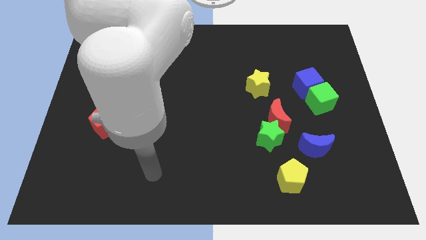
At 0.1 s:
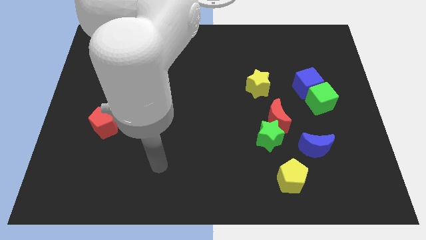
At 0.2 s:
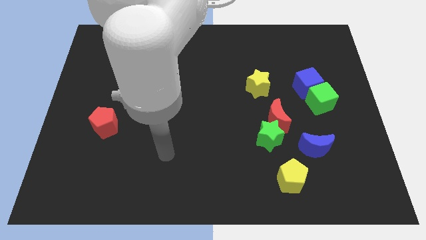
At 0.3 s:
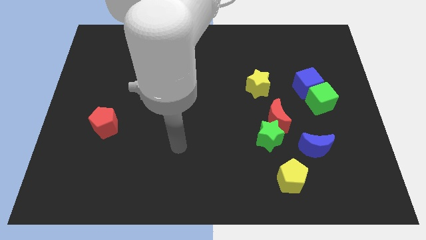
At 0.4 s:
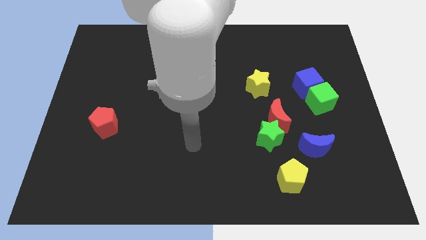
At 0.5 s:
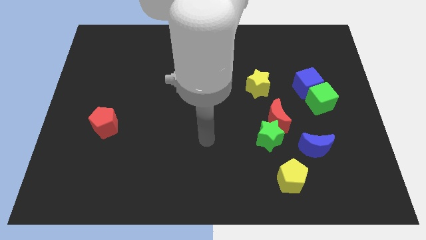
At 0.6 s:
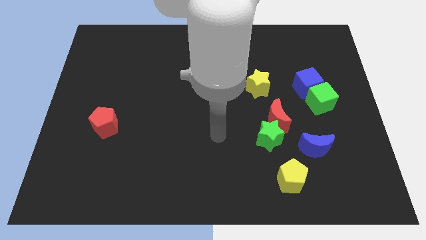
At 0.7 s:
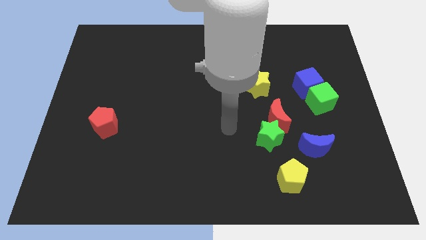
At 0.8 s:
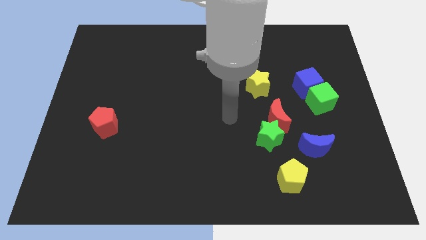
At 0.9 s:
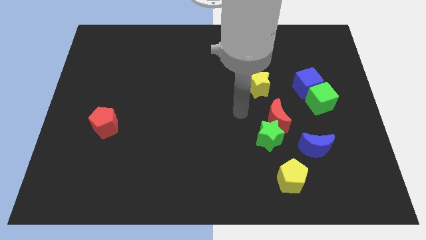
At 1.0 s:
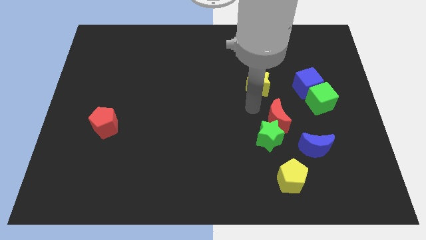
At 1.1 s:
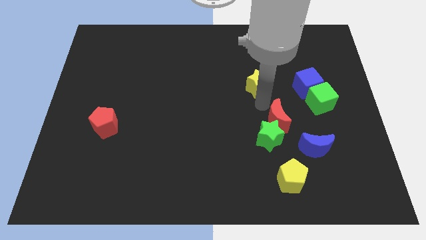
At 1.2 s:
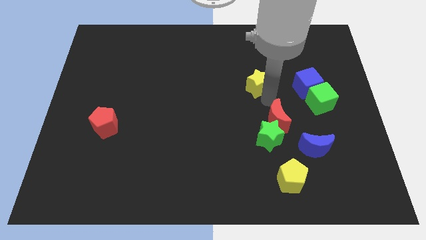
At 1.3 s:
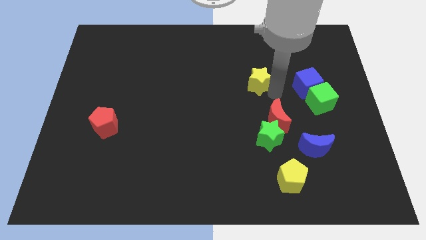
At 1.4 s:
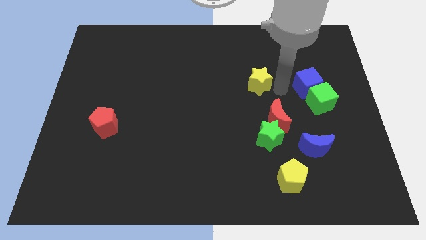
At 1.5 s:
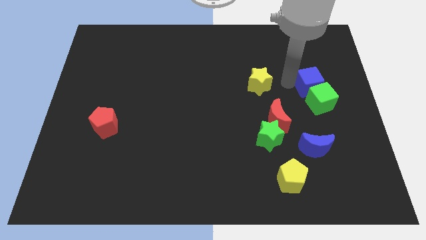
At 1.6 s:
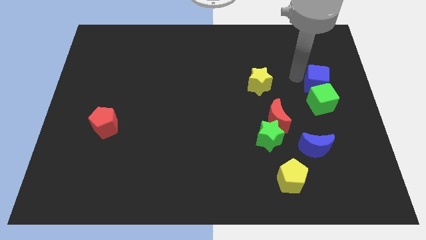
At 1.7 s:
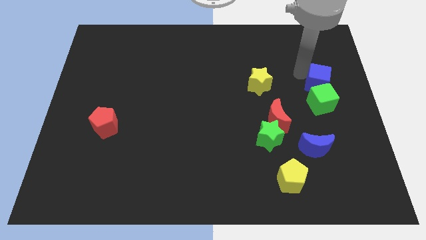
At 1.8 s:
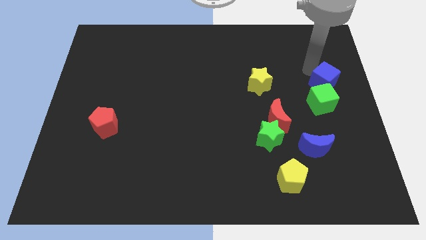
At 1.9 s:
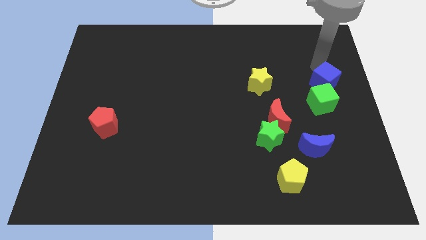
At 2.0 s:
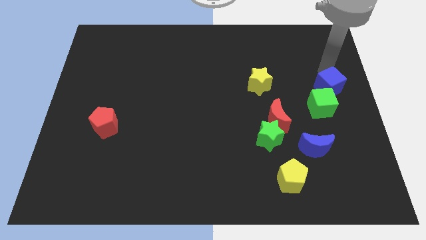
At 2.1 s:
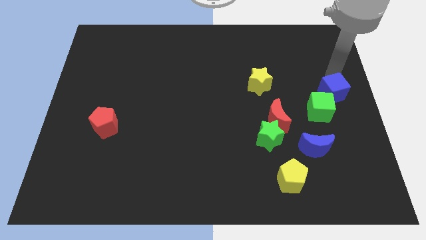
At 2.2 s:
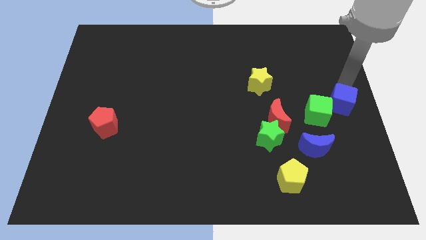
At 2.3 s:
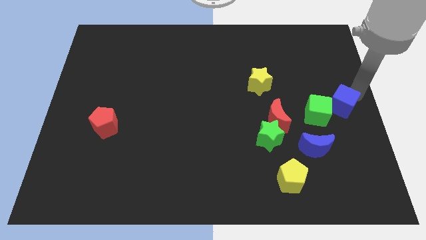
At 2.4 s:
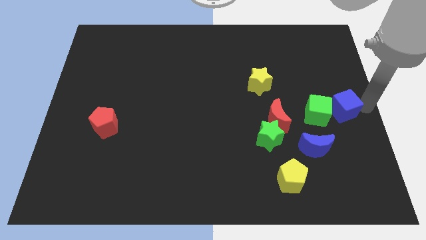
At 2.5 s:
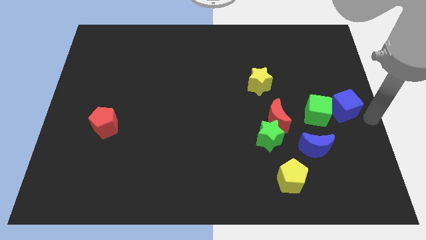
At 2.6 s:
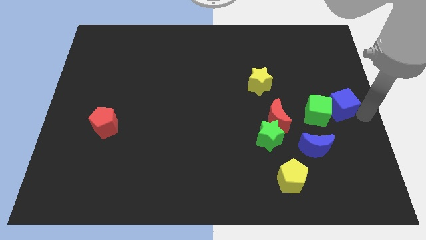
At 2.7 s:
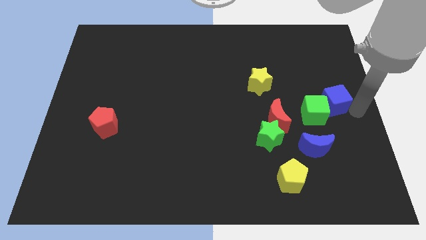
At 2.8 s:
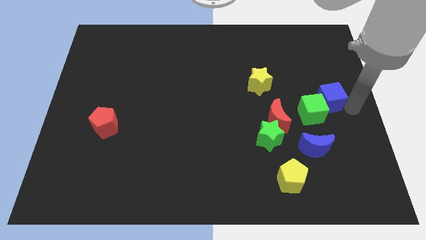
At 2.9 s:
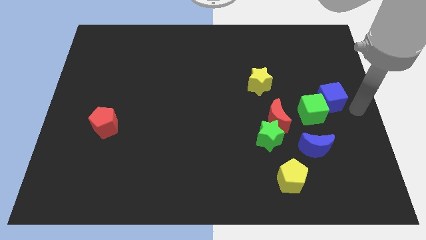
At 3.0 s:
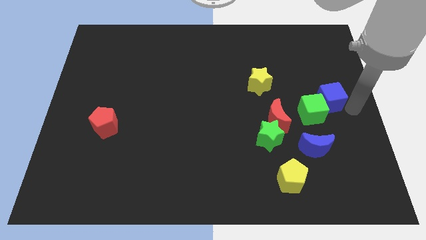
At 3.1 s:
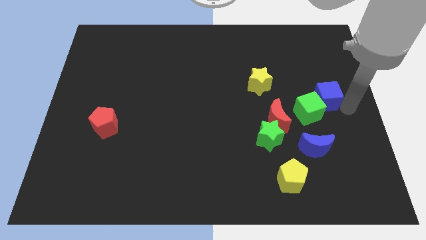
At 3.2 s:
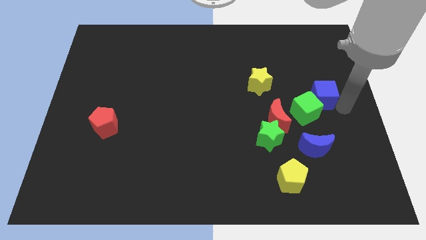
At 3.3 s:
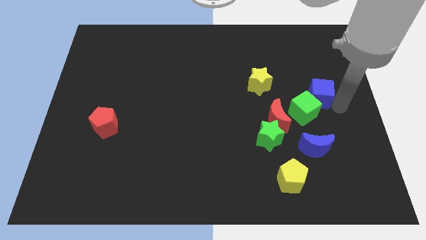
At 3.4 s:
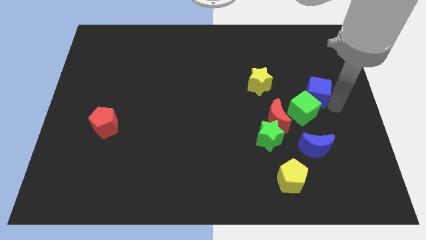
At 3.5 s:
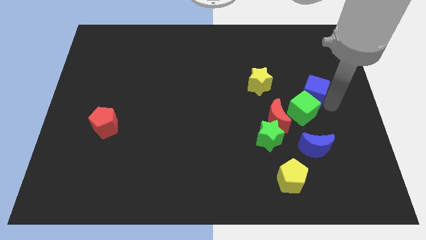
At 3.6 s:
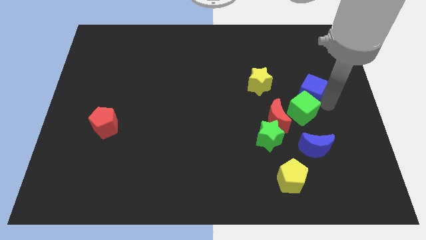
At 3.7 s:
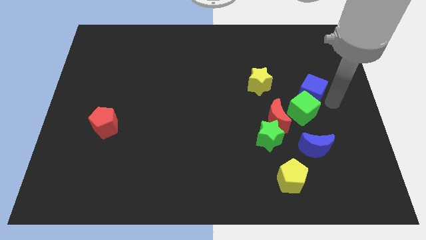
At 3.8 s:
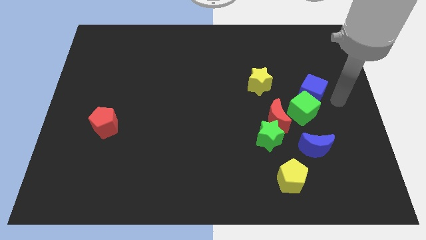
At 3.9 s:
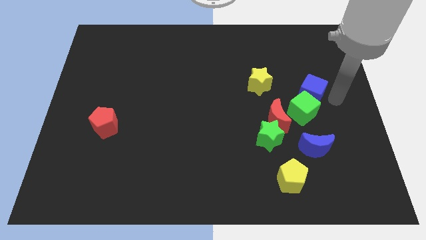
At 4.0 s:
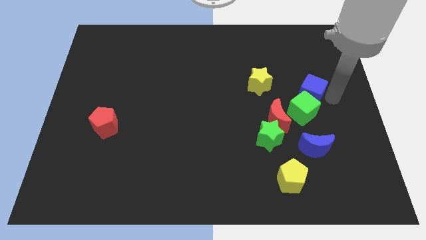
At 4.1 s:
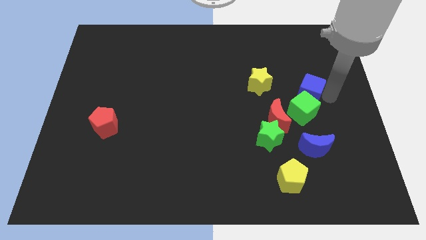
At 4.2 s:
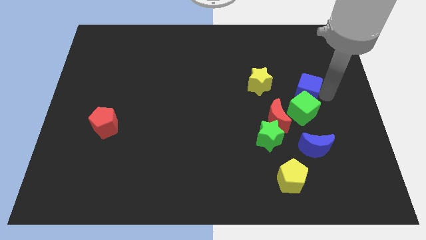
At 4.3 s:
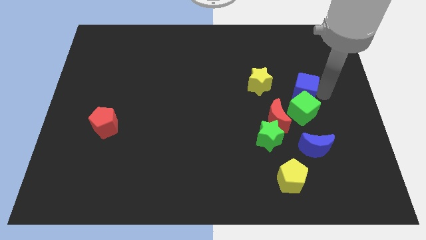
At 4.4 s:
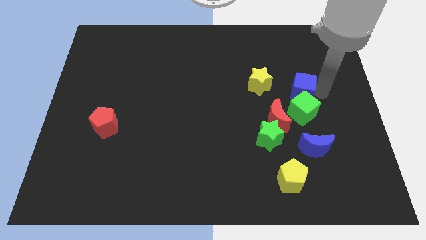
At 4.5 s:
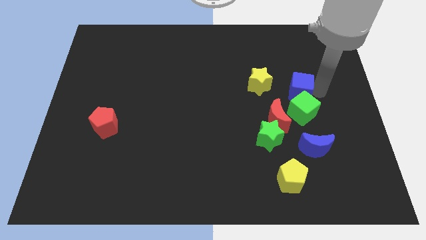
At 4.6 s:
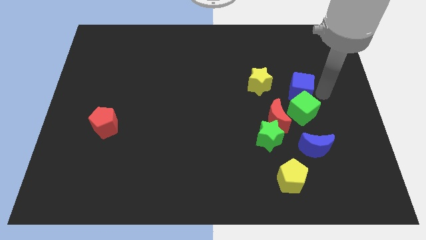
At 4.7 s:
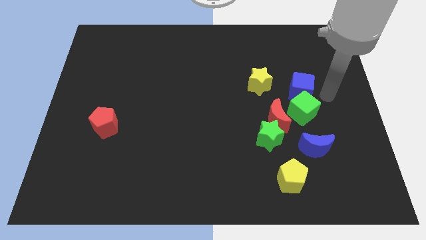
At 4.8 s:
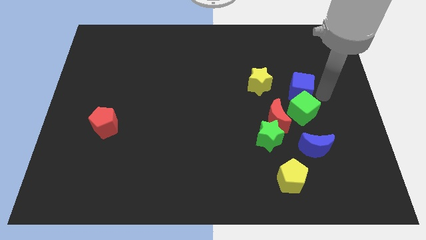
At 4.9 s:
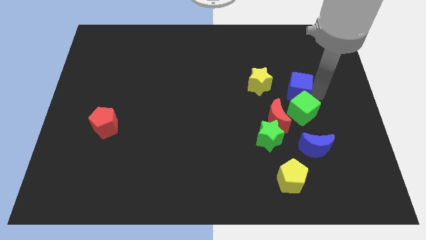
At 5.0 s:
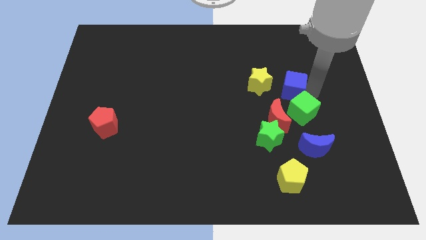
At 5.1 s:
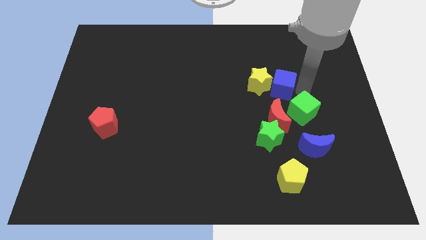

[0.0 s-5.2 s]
push the blue cube towards the yellow star

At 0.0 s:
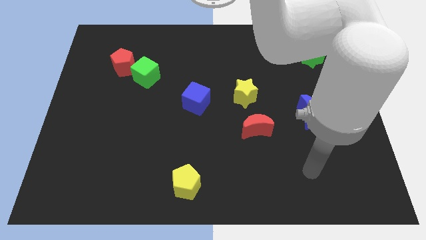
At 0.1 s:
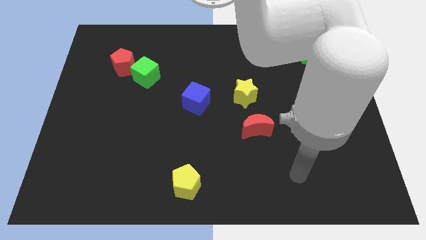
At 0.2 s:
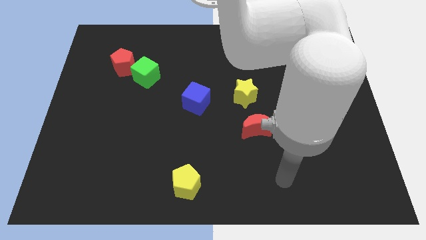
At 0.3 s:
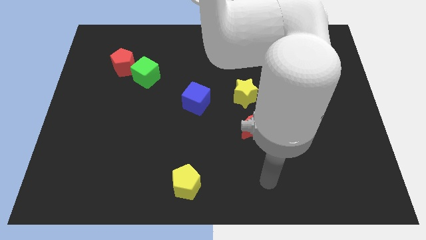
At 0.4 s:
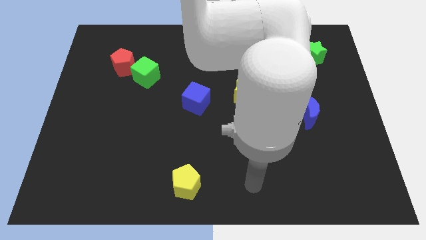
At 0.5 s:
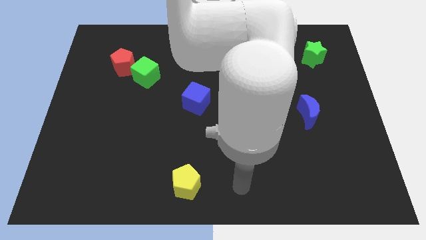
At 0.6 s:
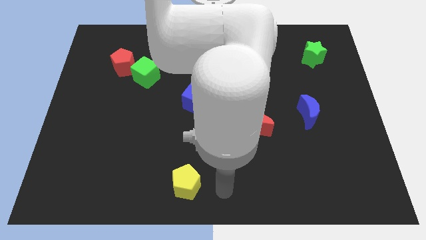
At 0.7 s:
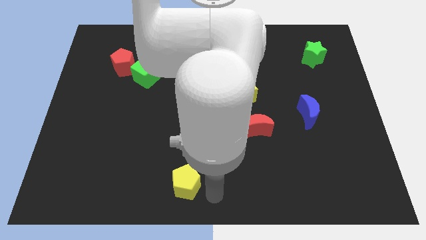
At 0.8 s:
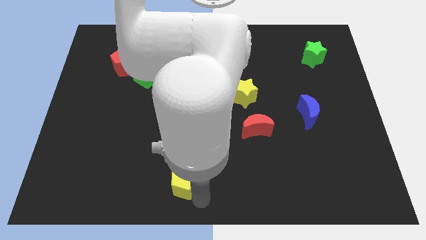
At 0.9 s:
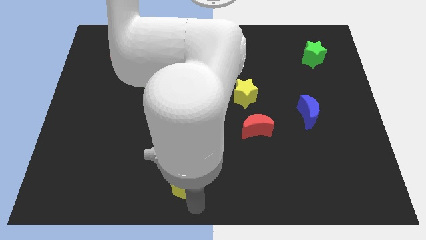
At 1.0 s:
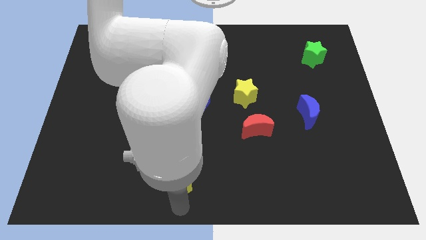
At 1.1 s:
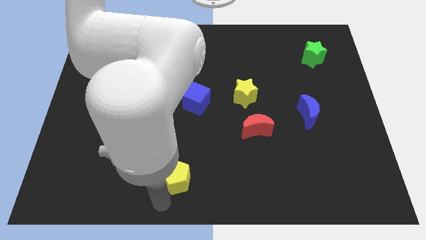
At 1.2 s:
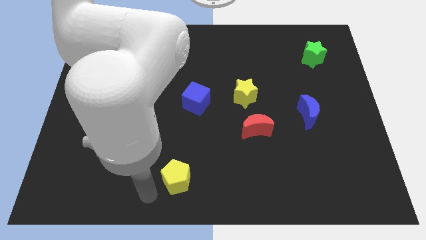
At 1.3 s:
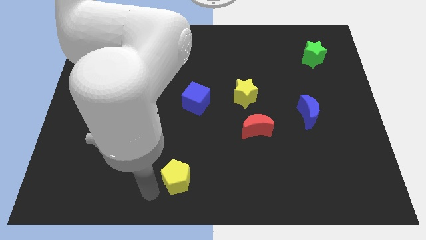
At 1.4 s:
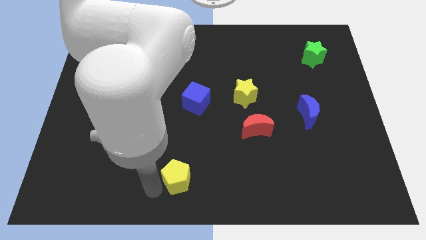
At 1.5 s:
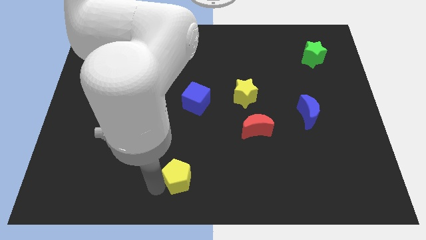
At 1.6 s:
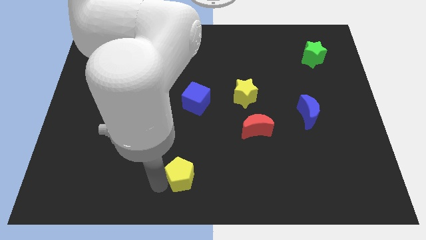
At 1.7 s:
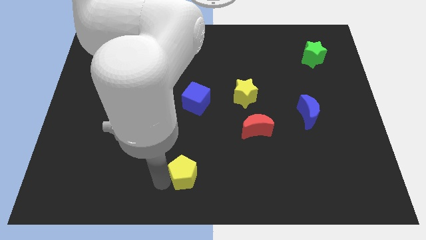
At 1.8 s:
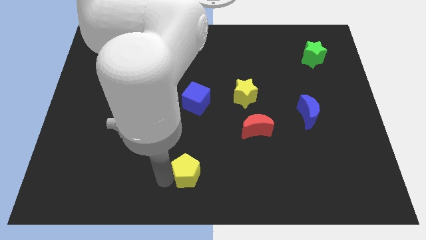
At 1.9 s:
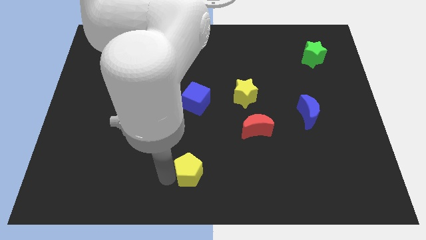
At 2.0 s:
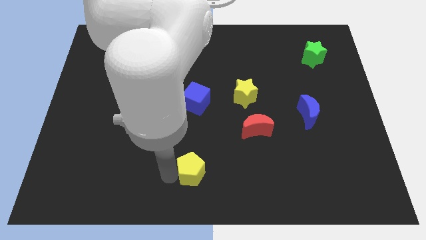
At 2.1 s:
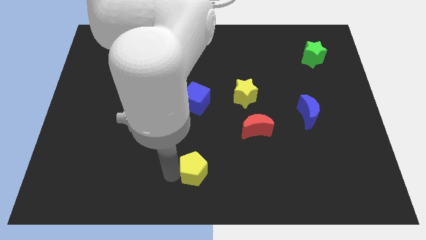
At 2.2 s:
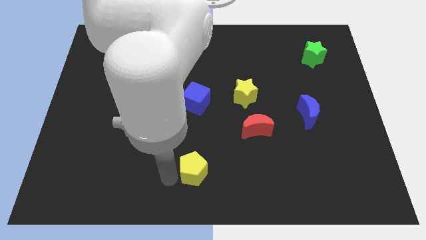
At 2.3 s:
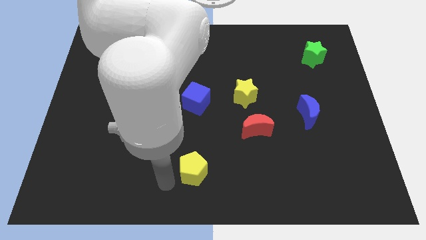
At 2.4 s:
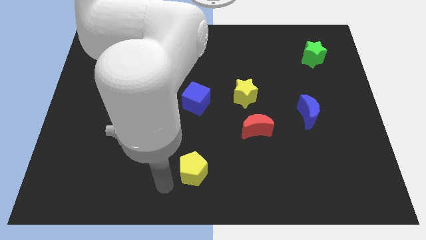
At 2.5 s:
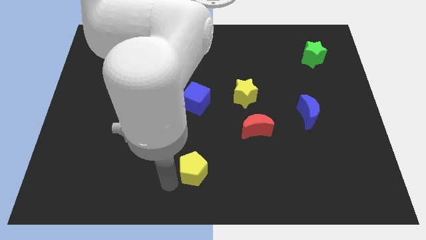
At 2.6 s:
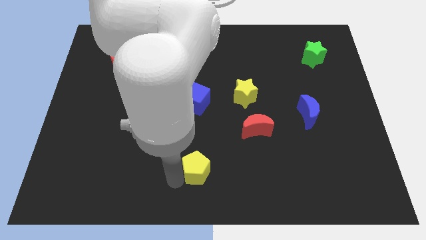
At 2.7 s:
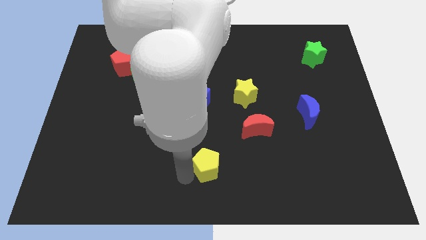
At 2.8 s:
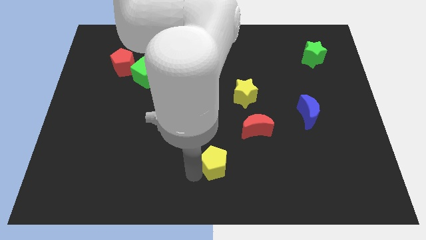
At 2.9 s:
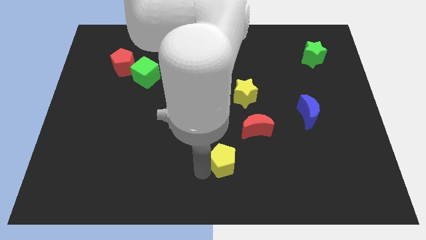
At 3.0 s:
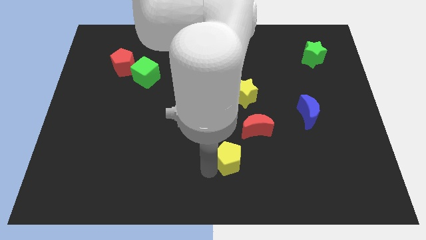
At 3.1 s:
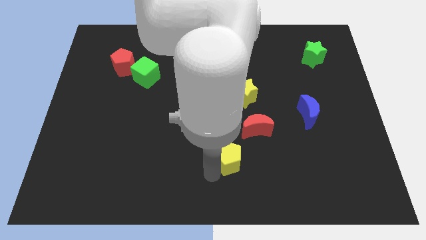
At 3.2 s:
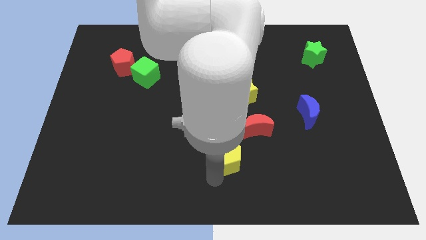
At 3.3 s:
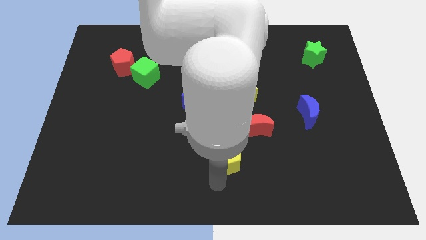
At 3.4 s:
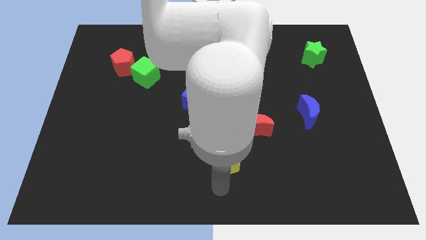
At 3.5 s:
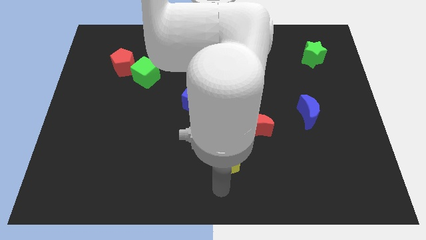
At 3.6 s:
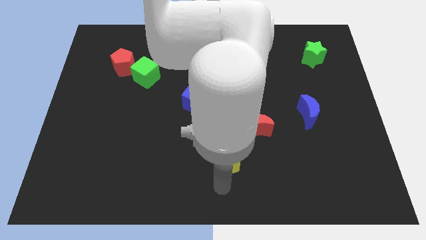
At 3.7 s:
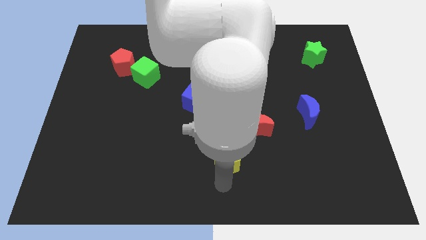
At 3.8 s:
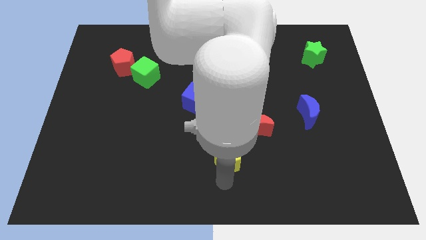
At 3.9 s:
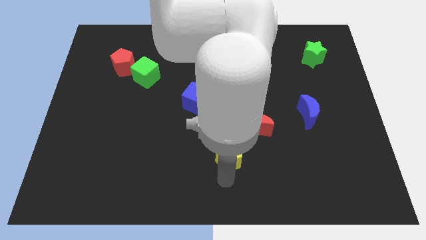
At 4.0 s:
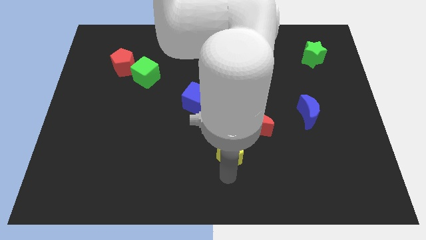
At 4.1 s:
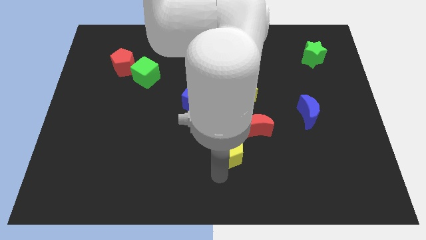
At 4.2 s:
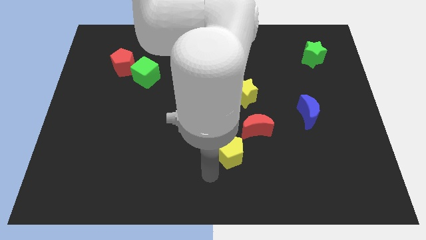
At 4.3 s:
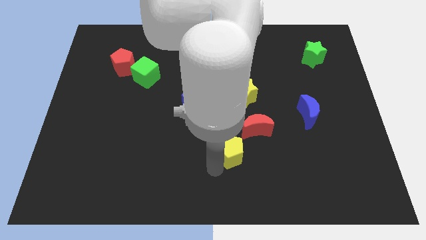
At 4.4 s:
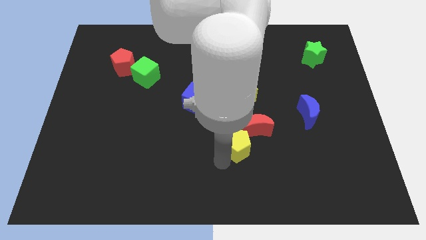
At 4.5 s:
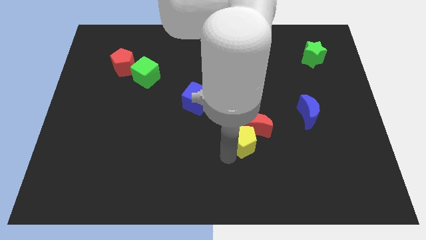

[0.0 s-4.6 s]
slide the yellow pentagon towards the red moon
